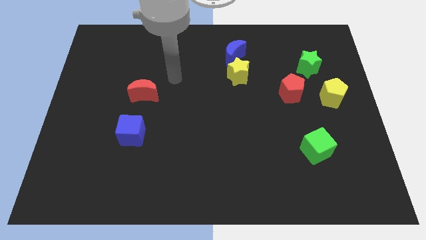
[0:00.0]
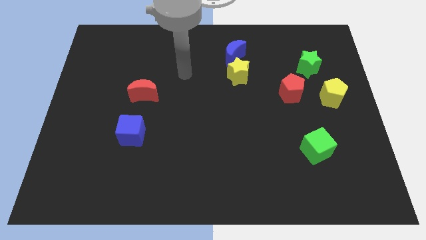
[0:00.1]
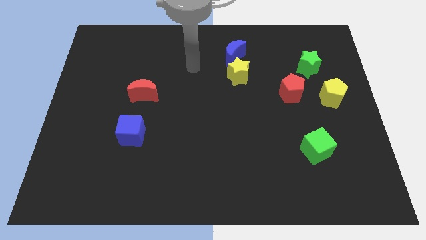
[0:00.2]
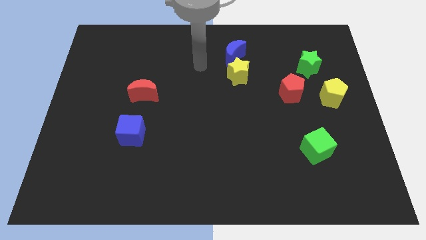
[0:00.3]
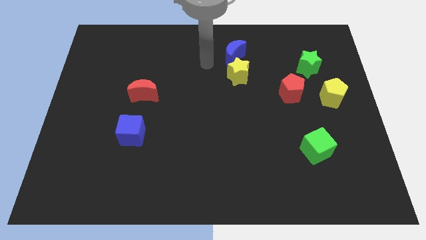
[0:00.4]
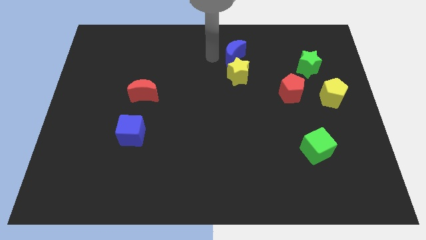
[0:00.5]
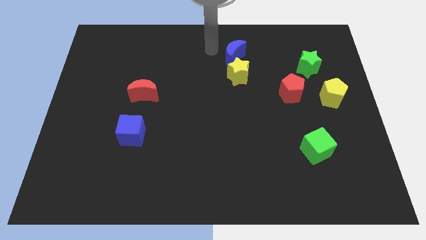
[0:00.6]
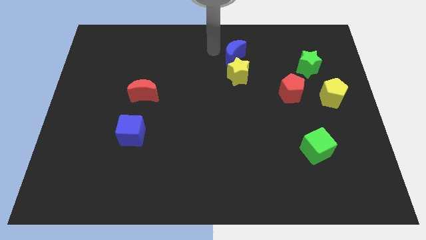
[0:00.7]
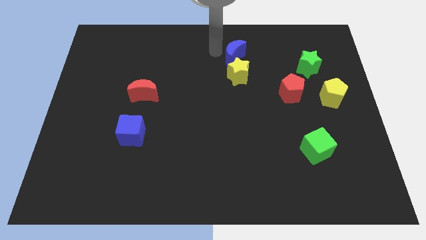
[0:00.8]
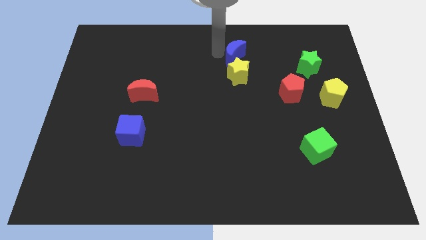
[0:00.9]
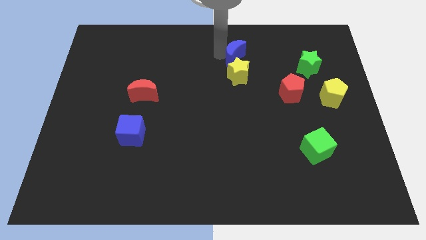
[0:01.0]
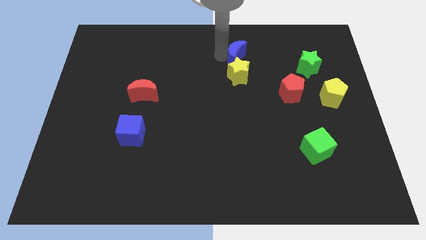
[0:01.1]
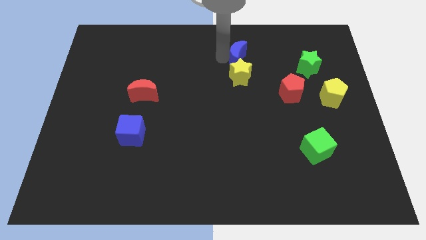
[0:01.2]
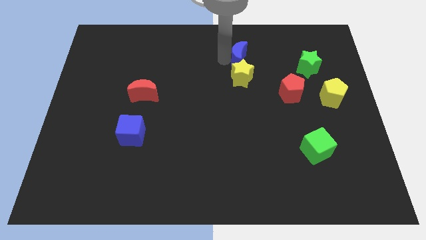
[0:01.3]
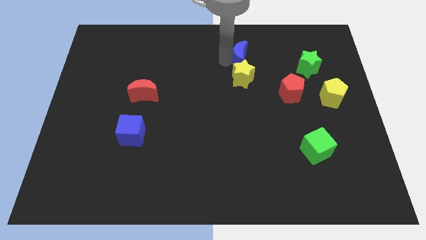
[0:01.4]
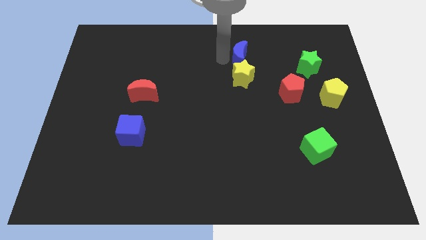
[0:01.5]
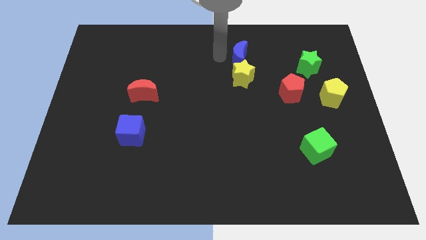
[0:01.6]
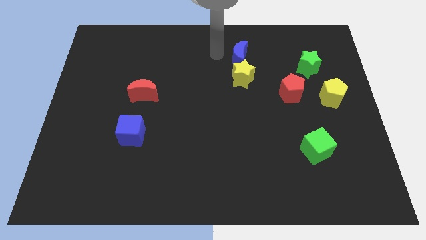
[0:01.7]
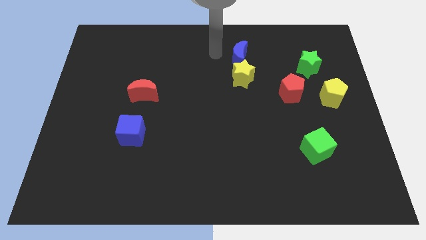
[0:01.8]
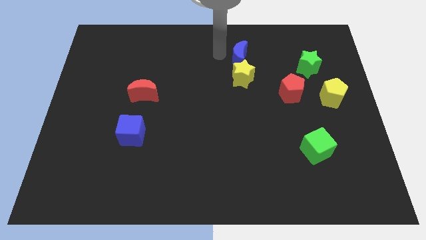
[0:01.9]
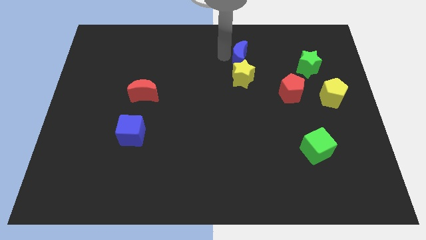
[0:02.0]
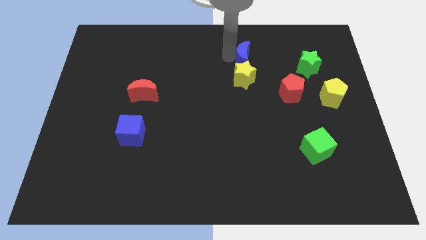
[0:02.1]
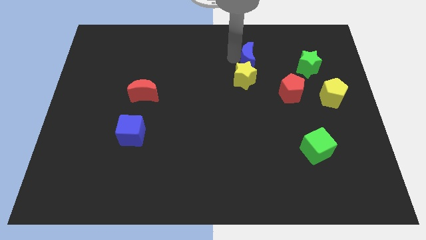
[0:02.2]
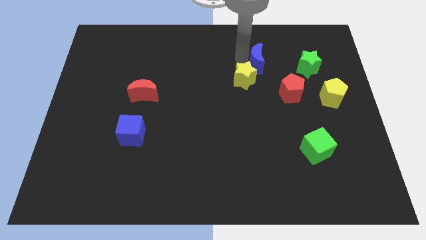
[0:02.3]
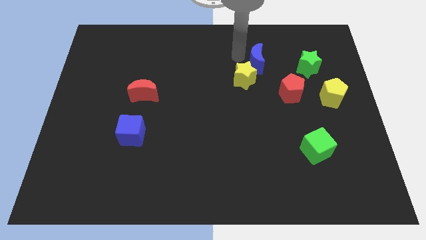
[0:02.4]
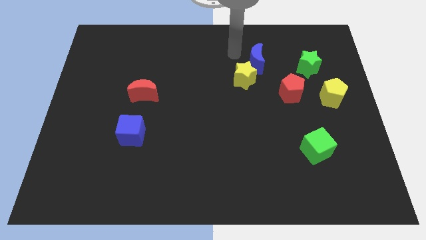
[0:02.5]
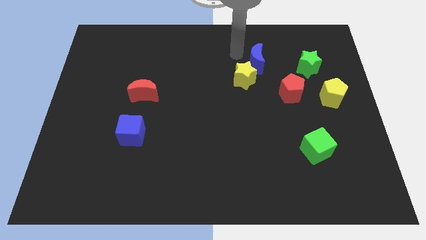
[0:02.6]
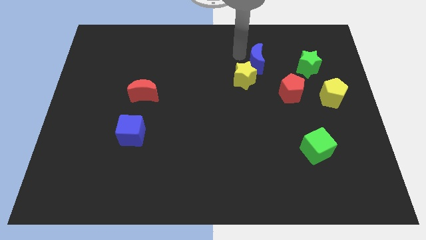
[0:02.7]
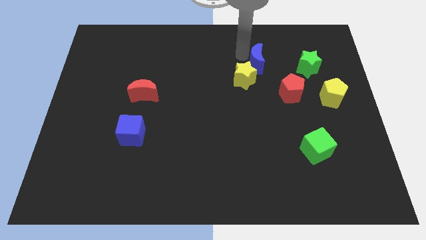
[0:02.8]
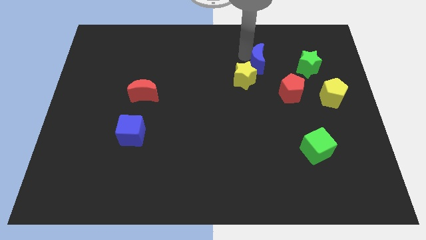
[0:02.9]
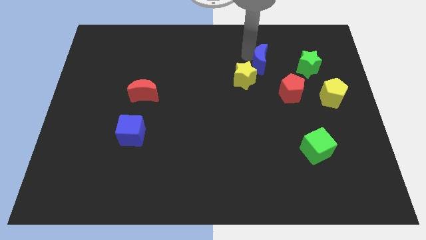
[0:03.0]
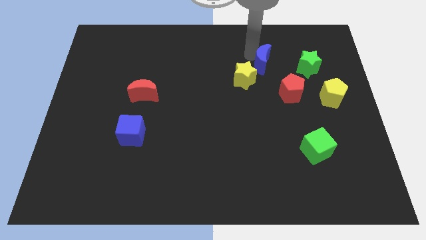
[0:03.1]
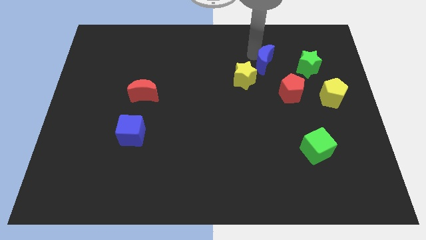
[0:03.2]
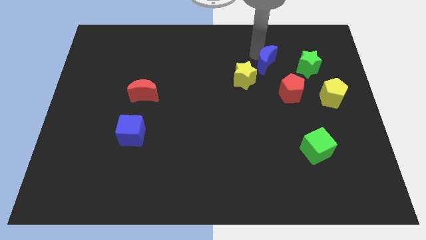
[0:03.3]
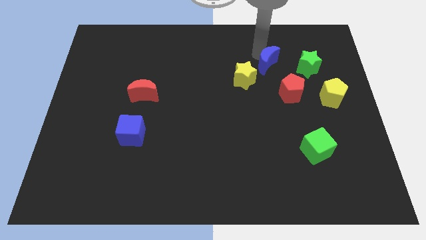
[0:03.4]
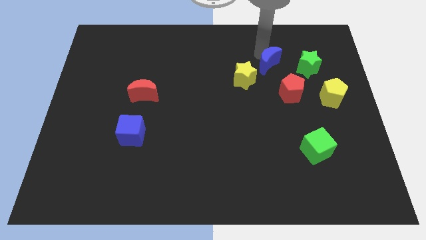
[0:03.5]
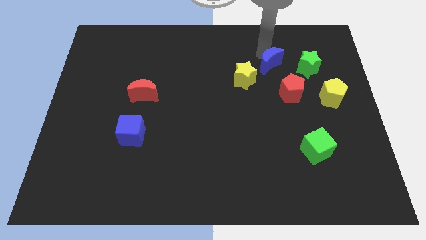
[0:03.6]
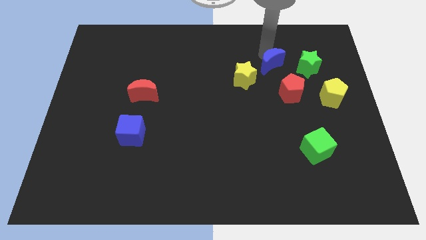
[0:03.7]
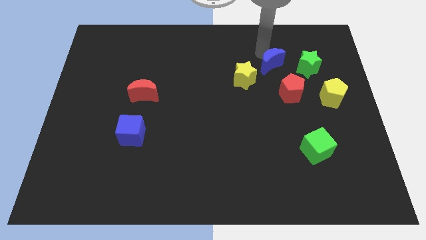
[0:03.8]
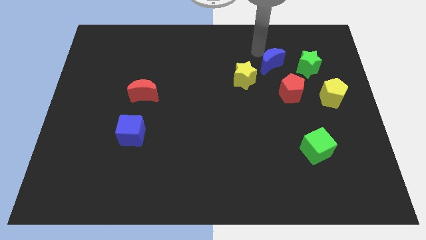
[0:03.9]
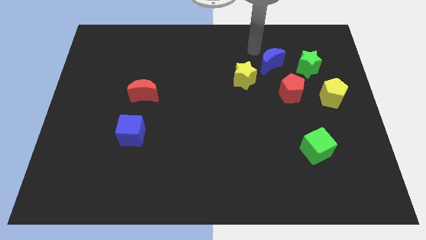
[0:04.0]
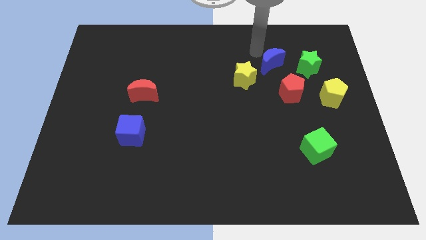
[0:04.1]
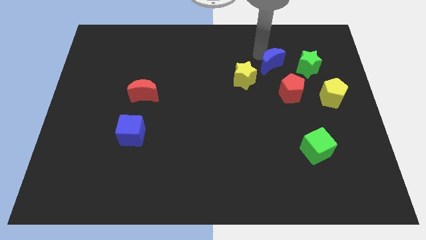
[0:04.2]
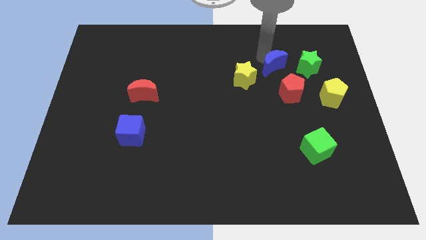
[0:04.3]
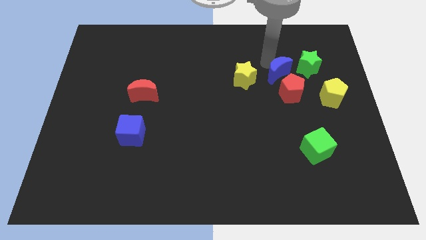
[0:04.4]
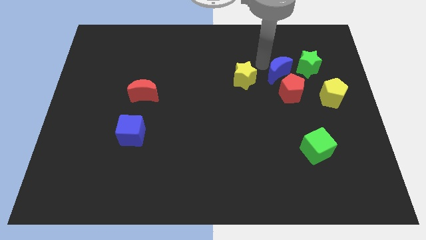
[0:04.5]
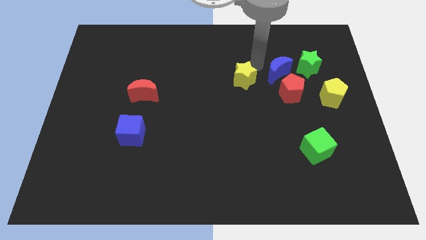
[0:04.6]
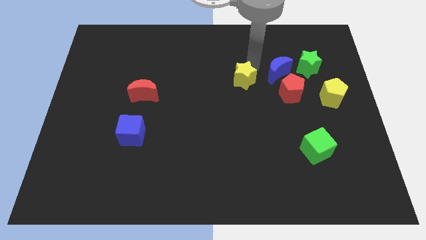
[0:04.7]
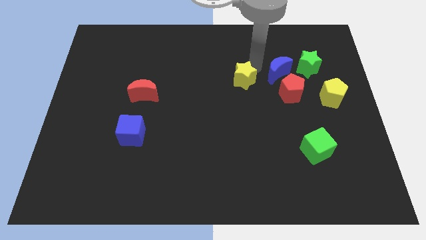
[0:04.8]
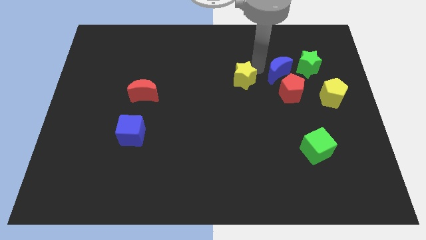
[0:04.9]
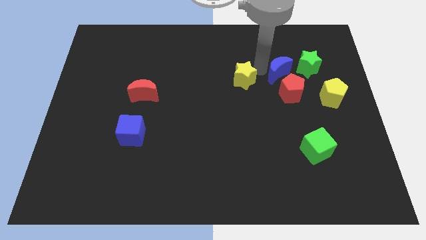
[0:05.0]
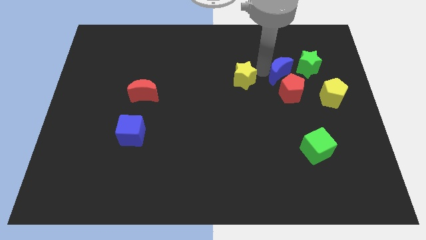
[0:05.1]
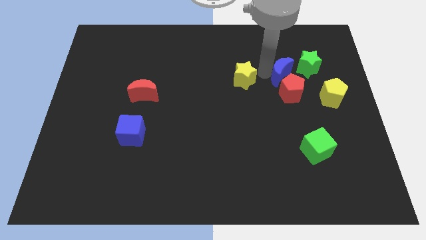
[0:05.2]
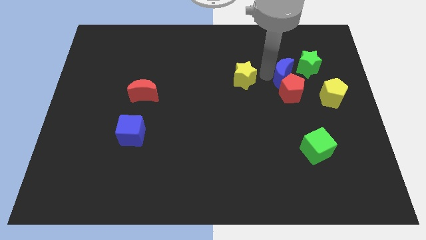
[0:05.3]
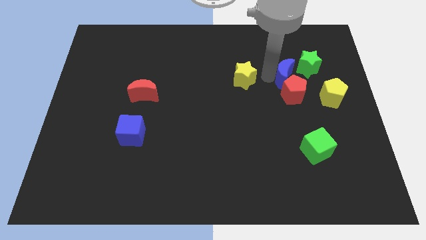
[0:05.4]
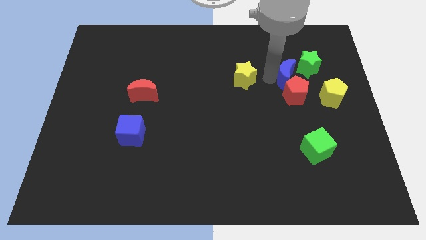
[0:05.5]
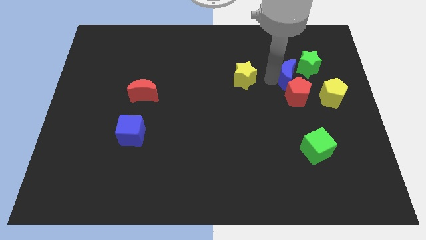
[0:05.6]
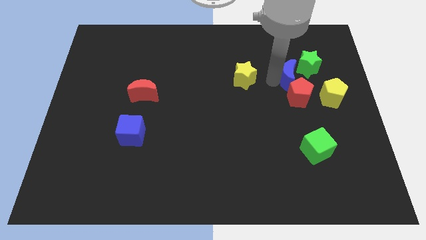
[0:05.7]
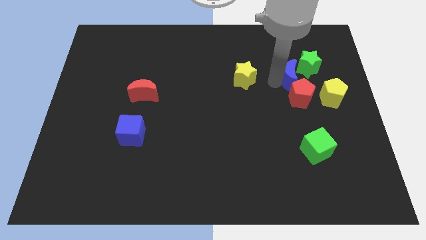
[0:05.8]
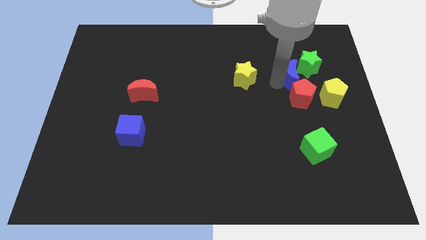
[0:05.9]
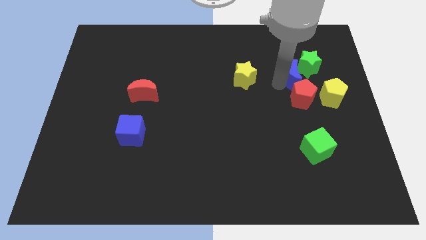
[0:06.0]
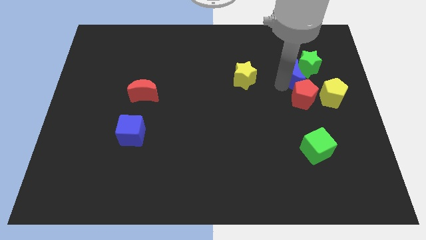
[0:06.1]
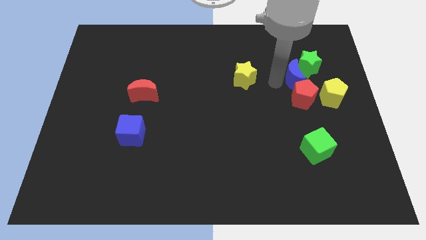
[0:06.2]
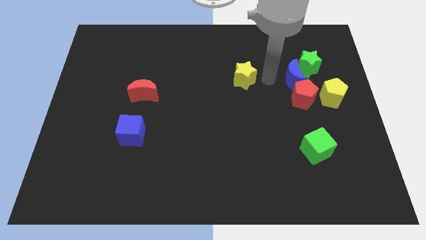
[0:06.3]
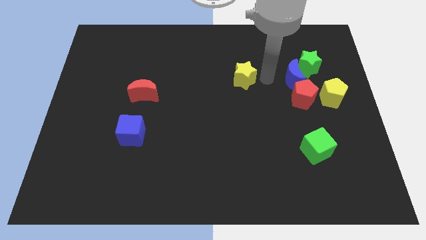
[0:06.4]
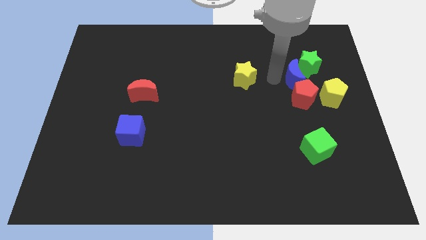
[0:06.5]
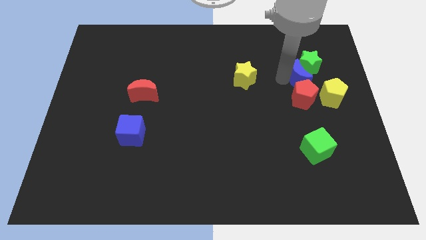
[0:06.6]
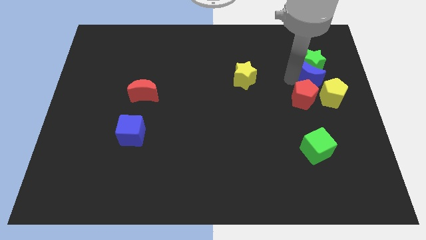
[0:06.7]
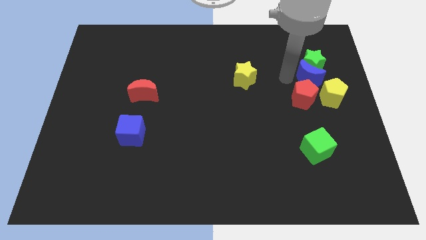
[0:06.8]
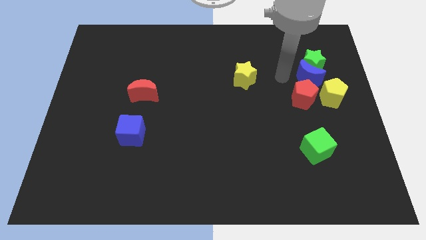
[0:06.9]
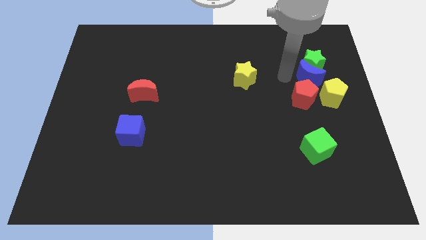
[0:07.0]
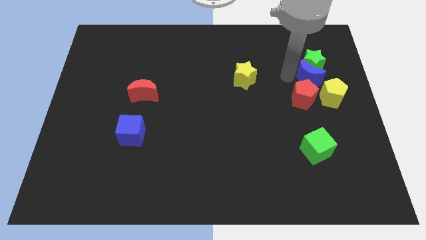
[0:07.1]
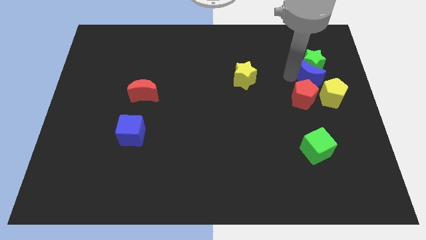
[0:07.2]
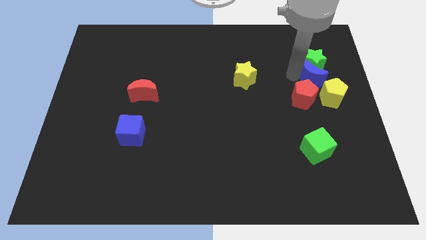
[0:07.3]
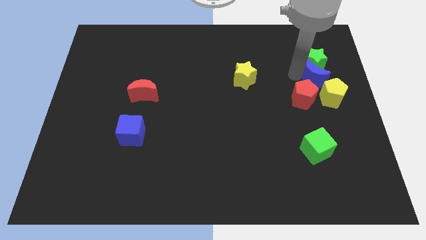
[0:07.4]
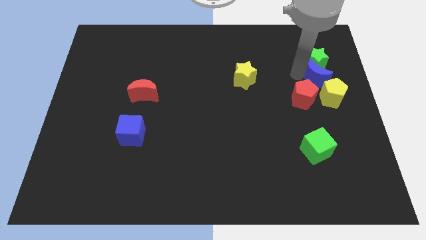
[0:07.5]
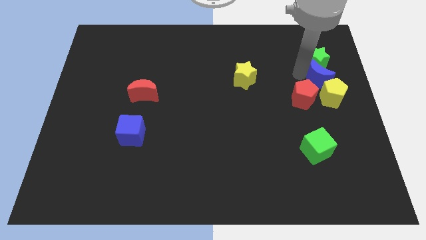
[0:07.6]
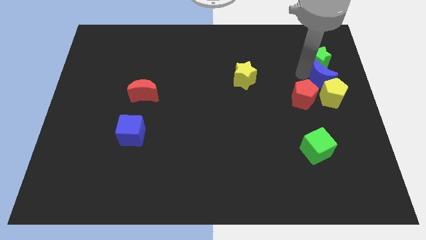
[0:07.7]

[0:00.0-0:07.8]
push the blue moon to the right side of the board
